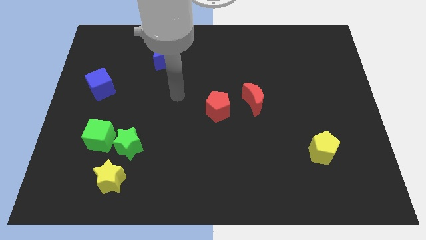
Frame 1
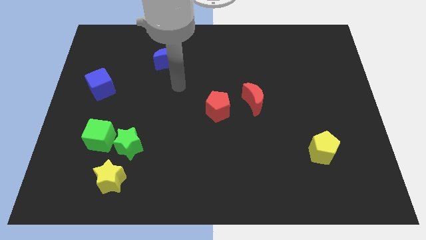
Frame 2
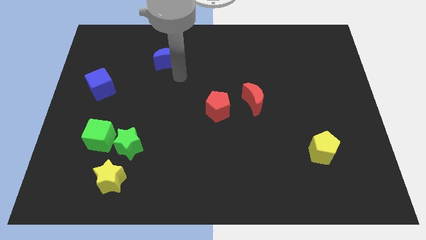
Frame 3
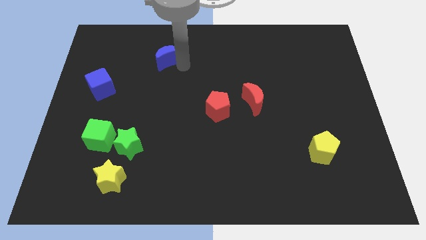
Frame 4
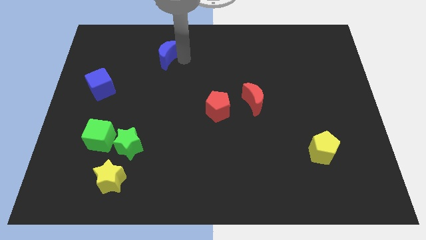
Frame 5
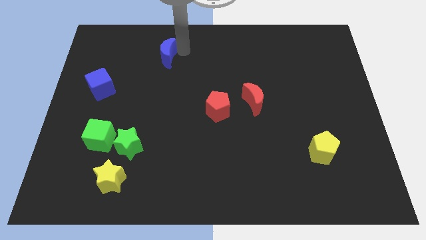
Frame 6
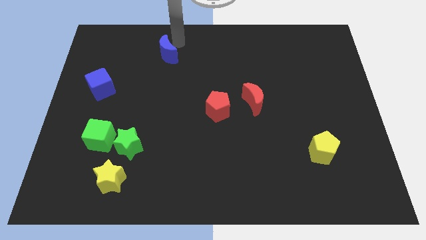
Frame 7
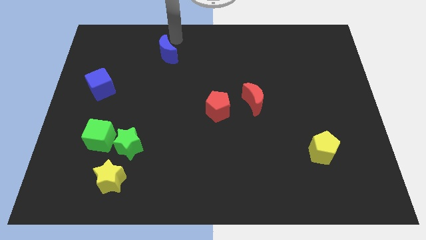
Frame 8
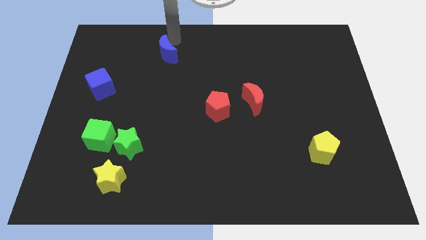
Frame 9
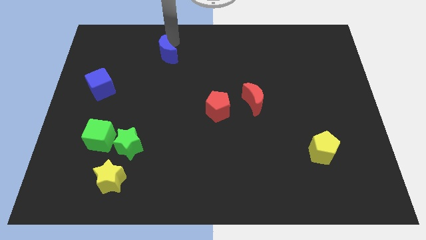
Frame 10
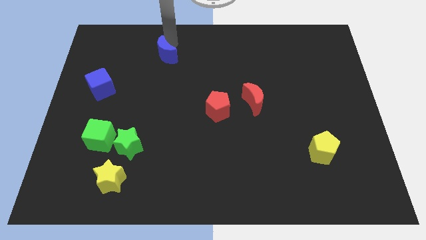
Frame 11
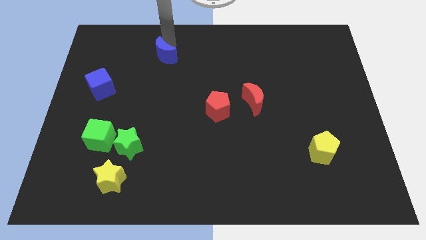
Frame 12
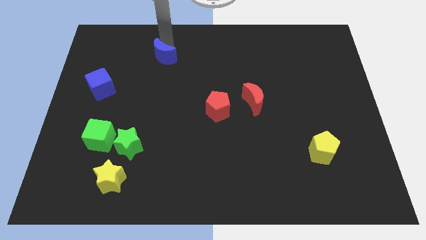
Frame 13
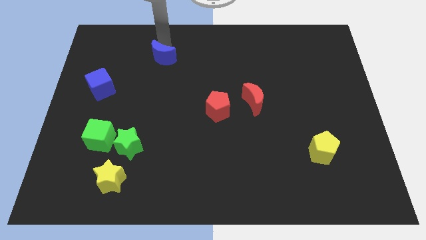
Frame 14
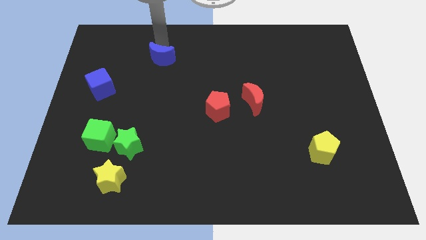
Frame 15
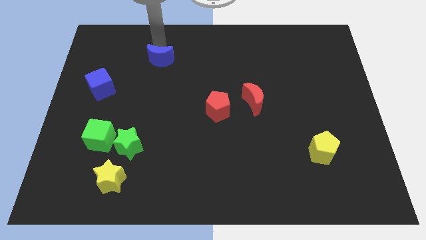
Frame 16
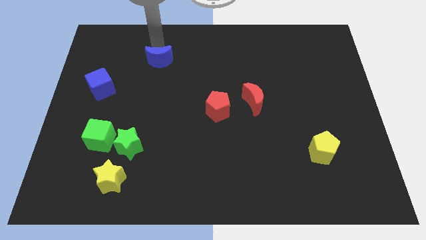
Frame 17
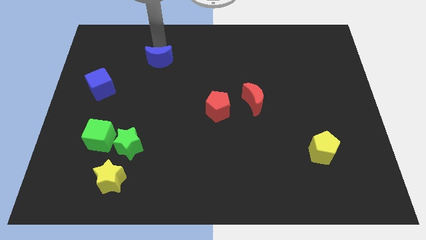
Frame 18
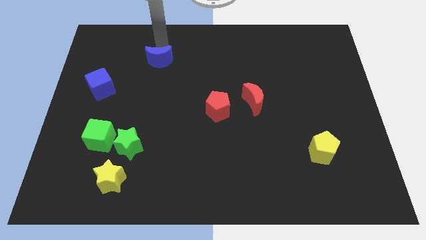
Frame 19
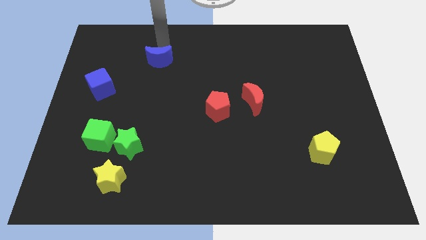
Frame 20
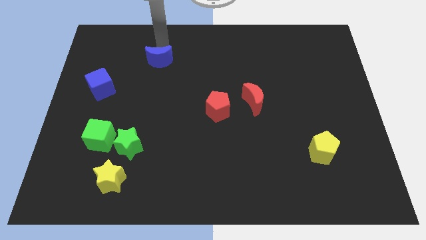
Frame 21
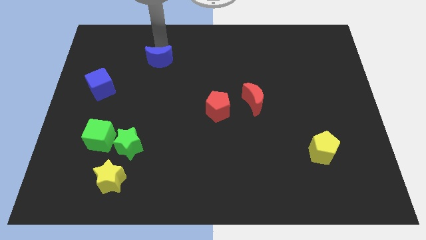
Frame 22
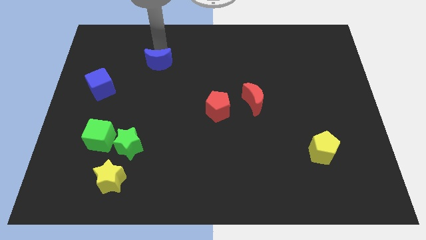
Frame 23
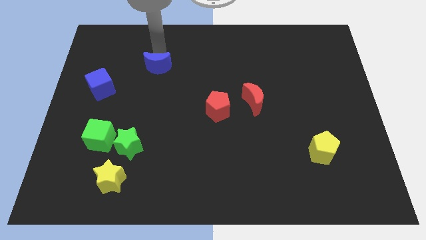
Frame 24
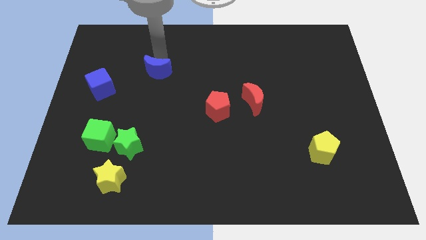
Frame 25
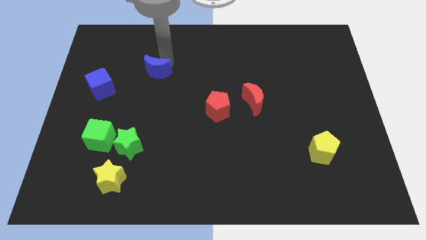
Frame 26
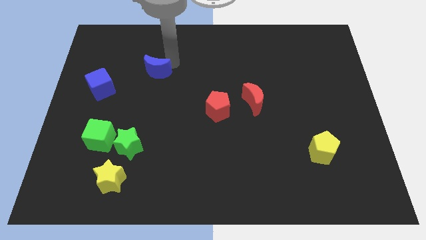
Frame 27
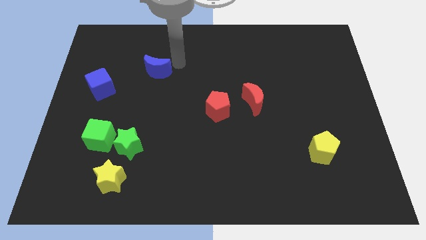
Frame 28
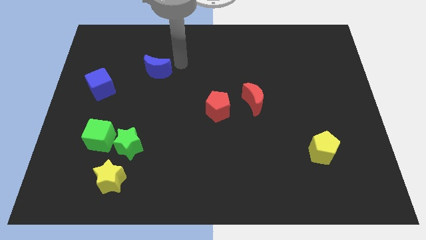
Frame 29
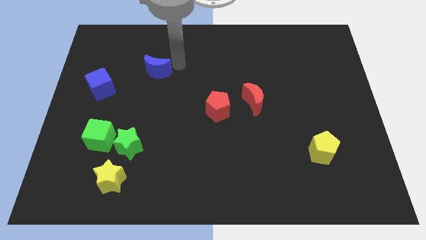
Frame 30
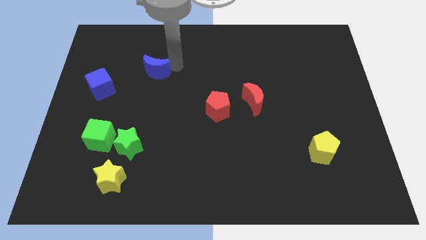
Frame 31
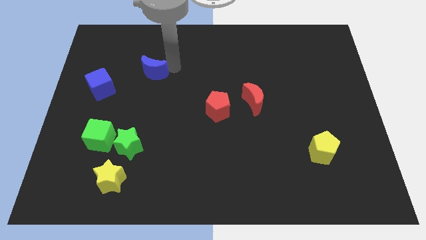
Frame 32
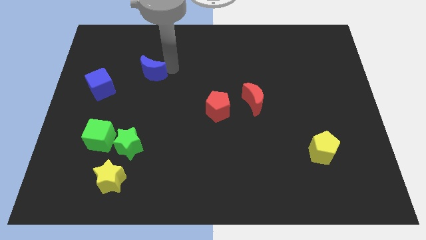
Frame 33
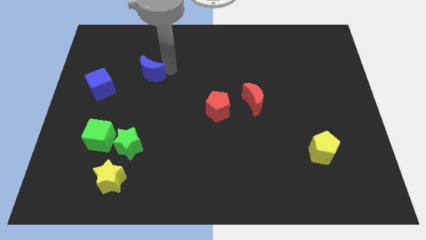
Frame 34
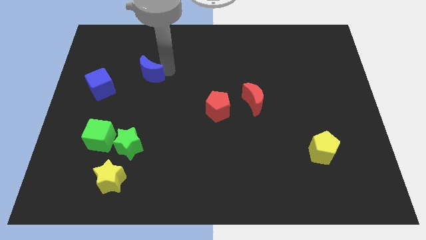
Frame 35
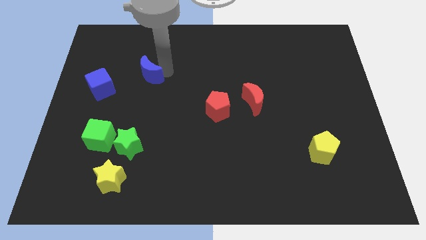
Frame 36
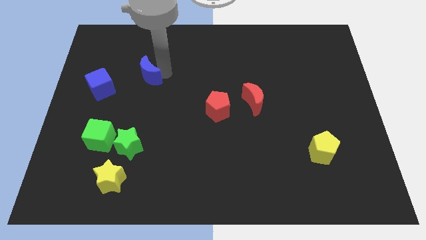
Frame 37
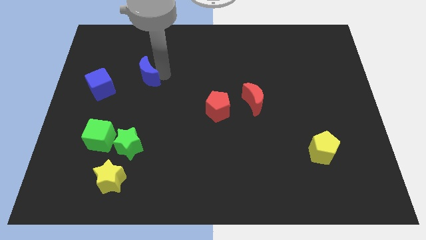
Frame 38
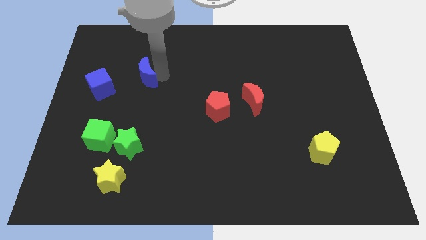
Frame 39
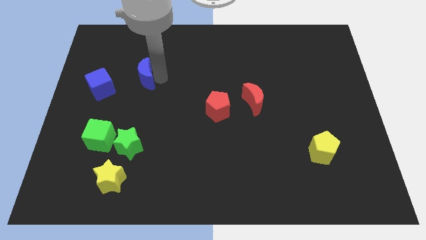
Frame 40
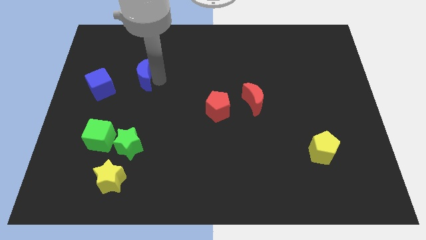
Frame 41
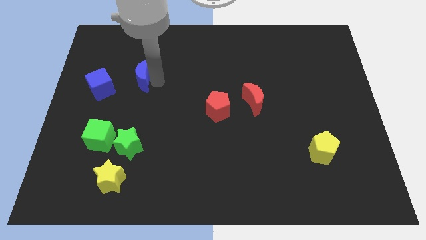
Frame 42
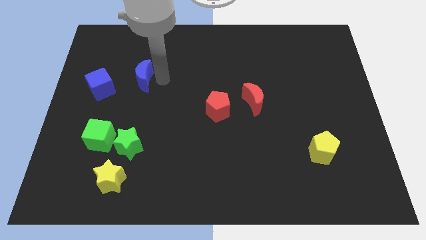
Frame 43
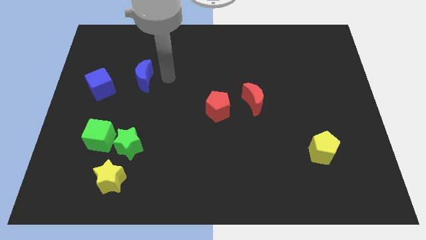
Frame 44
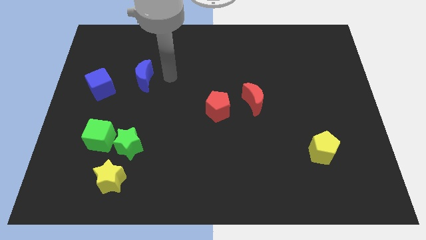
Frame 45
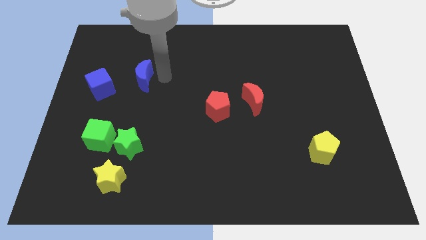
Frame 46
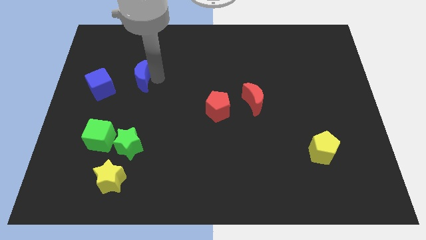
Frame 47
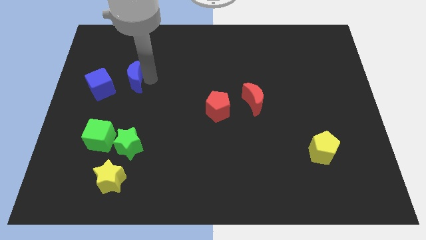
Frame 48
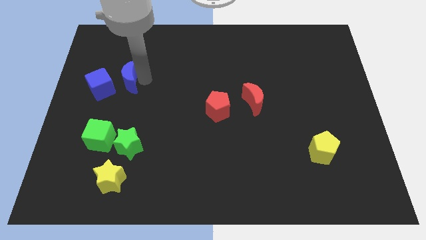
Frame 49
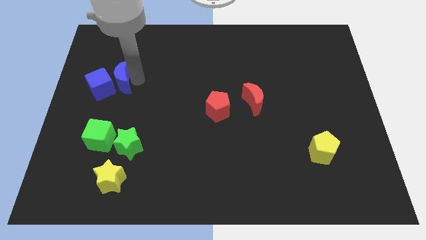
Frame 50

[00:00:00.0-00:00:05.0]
push the blue moon to the blue cube

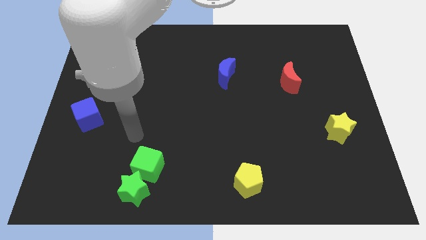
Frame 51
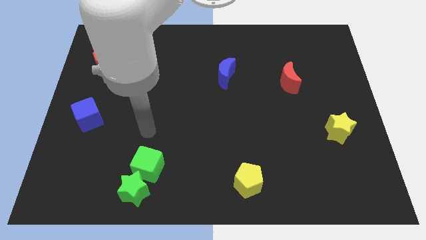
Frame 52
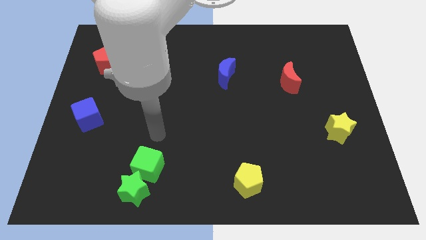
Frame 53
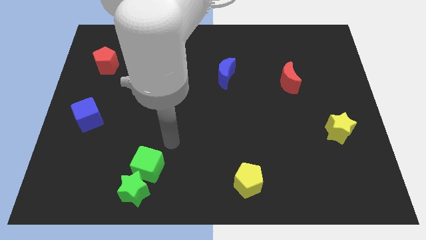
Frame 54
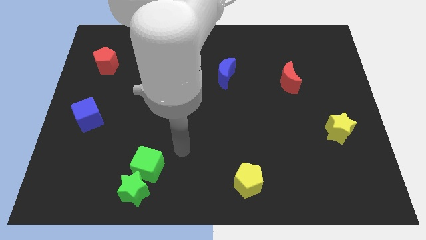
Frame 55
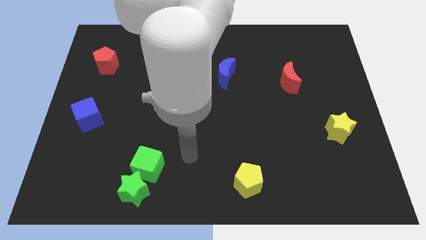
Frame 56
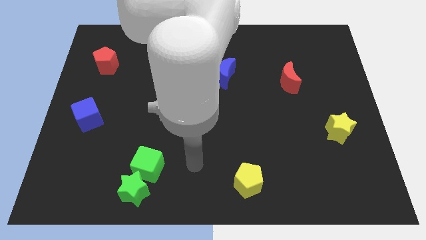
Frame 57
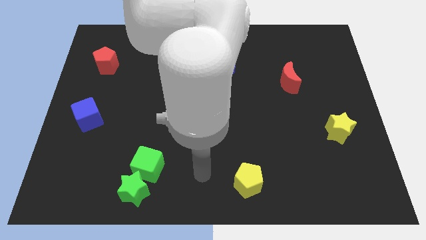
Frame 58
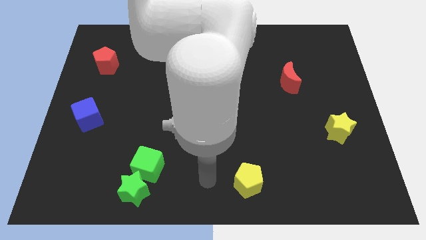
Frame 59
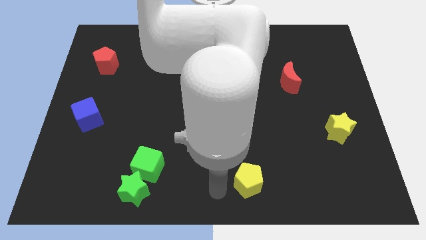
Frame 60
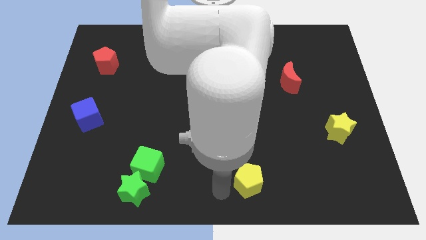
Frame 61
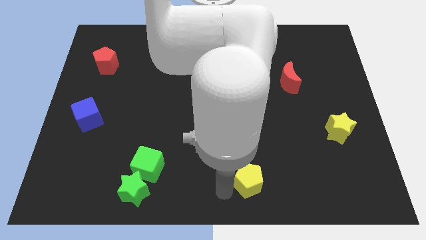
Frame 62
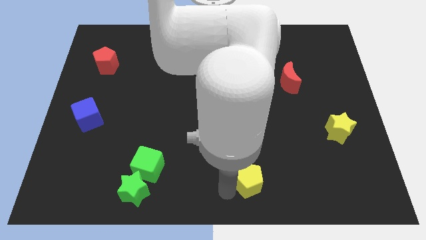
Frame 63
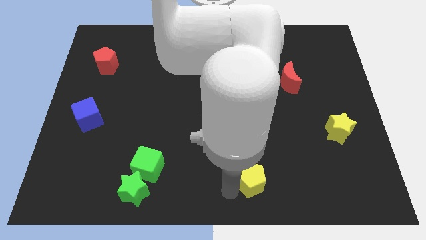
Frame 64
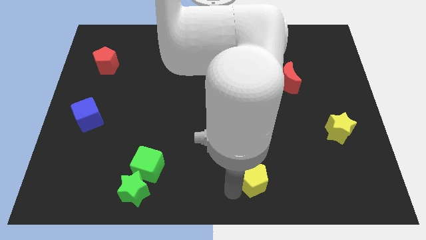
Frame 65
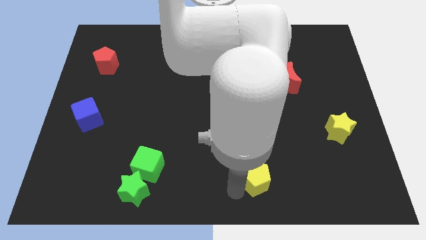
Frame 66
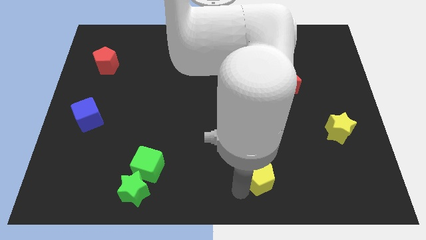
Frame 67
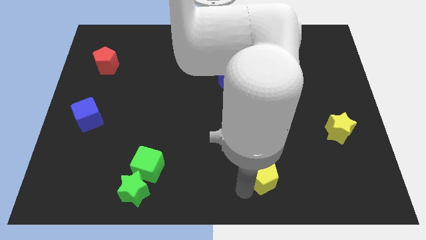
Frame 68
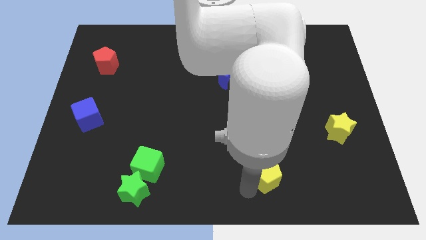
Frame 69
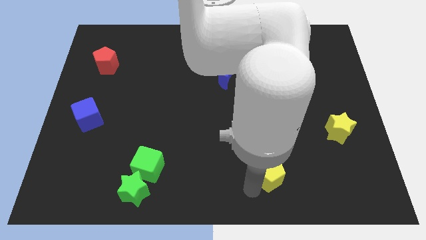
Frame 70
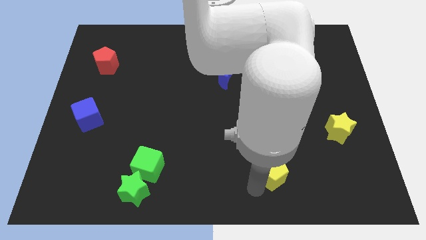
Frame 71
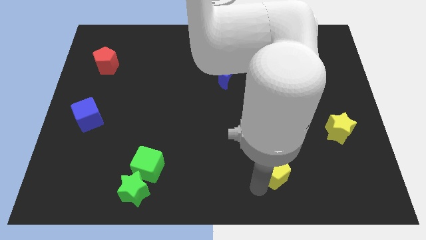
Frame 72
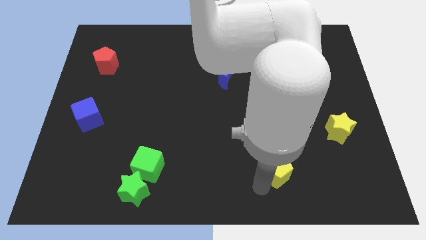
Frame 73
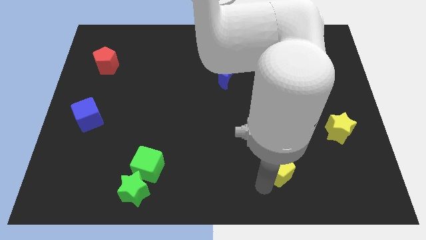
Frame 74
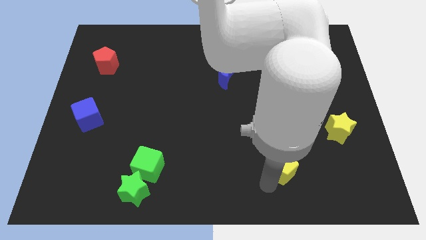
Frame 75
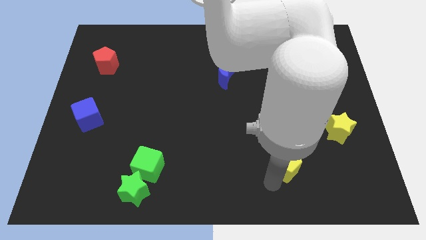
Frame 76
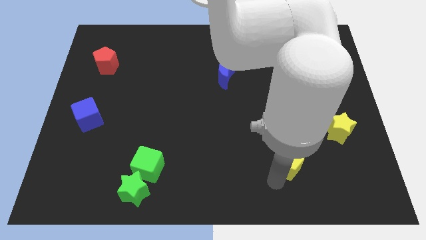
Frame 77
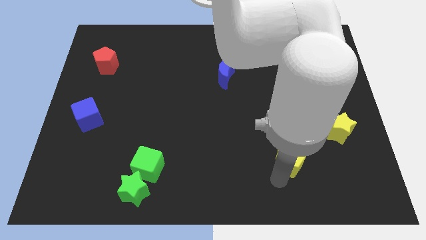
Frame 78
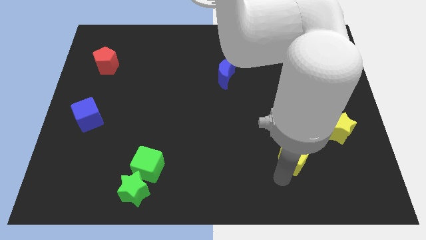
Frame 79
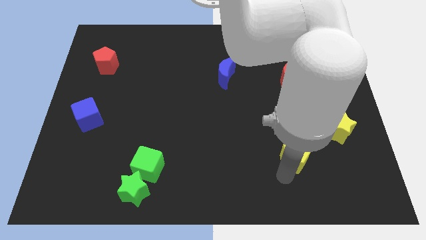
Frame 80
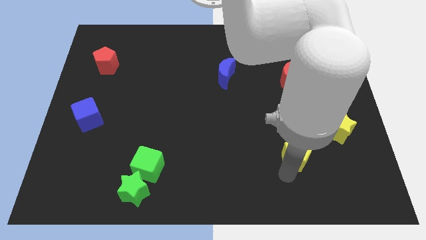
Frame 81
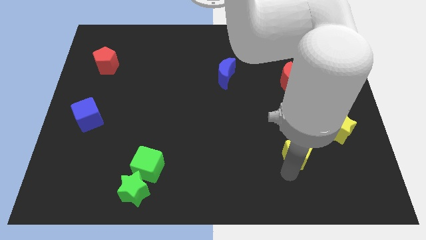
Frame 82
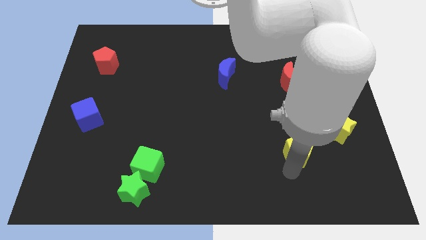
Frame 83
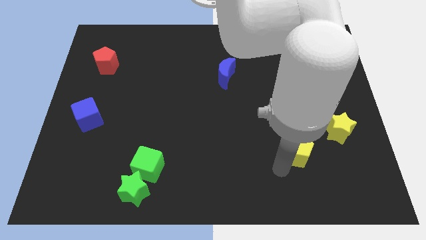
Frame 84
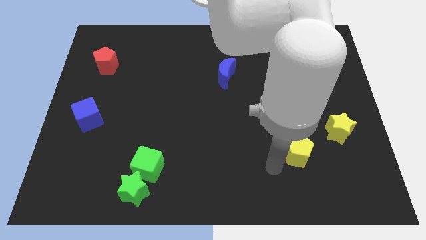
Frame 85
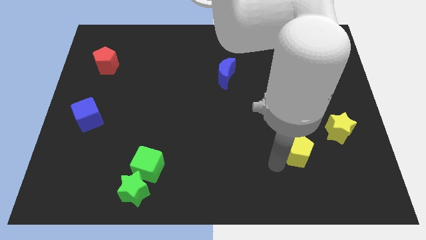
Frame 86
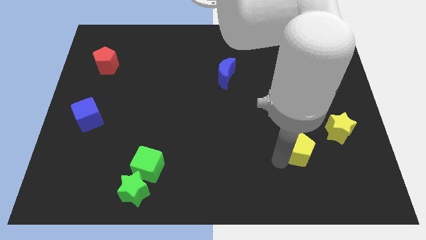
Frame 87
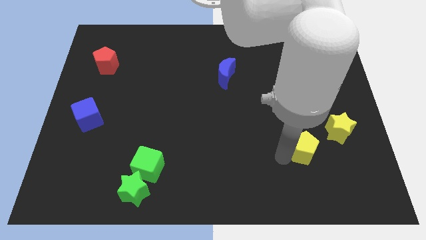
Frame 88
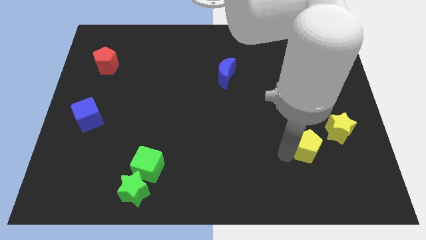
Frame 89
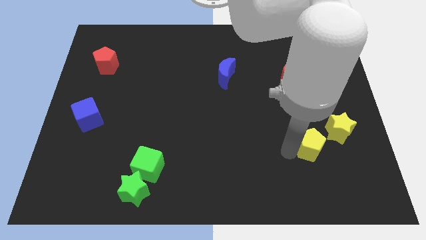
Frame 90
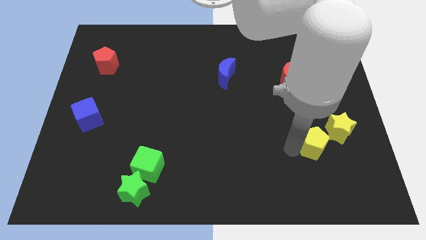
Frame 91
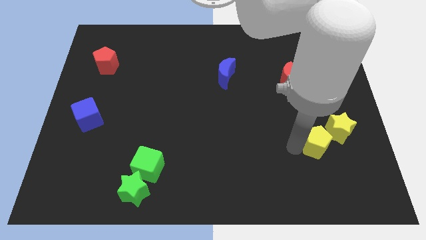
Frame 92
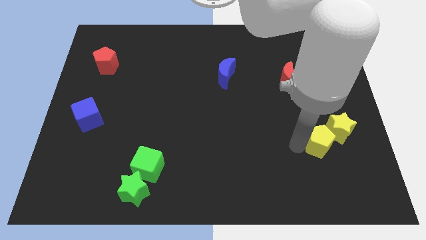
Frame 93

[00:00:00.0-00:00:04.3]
put the yellow pentagon next to the yellow star
